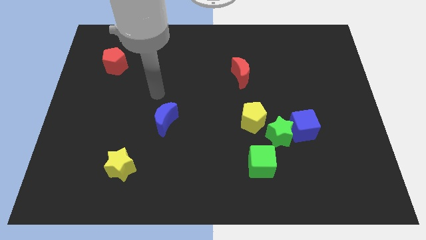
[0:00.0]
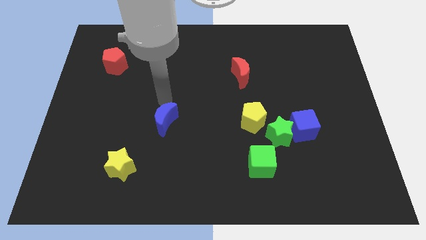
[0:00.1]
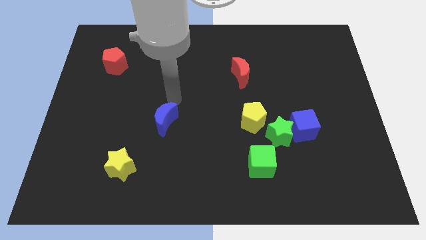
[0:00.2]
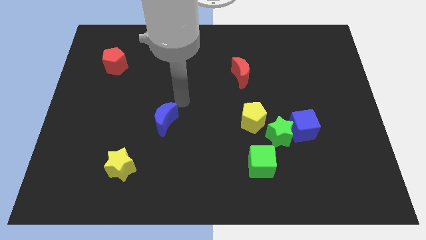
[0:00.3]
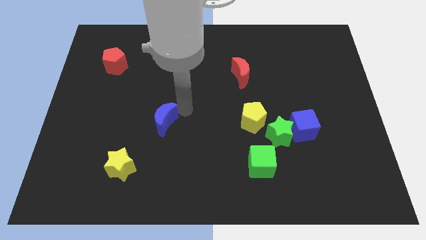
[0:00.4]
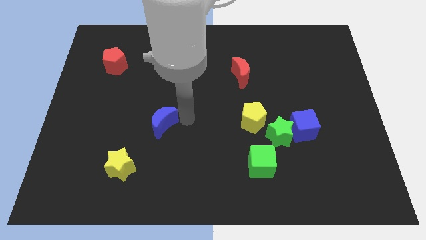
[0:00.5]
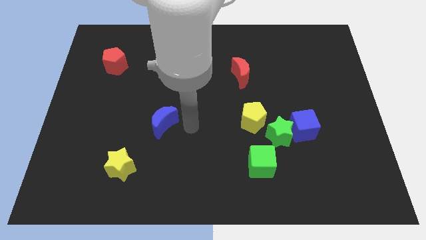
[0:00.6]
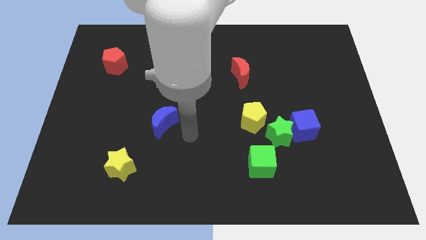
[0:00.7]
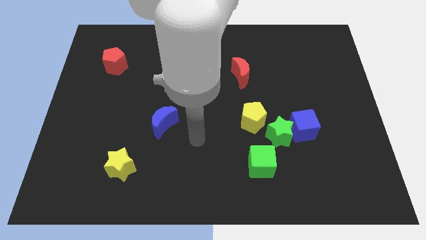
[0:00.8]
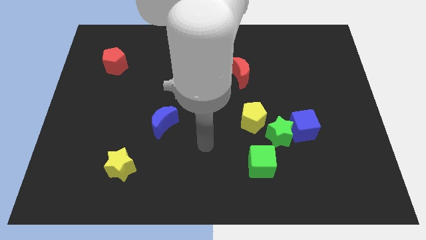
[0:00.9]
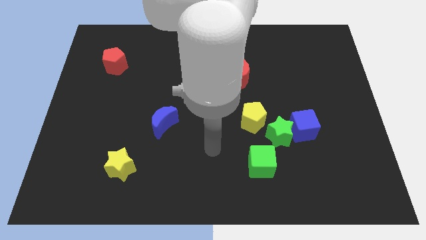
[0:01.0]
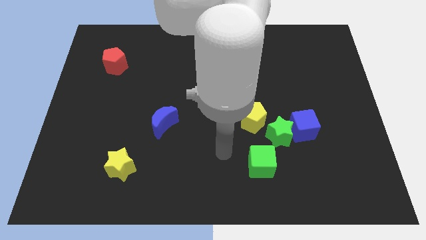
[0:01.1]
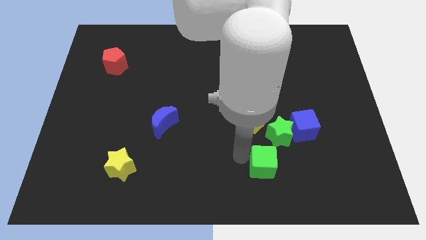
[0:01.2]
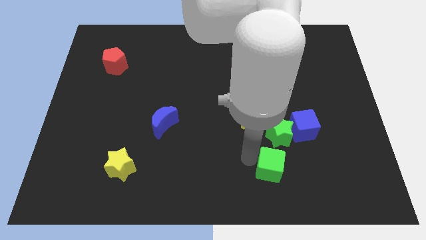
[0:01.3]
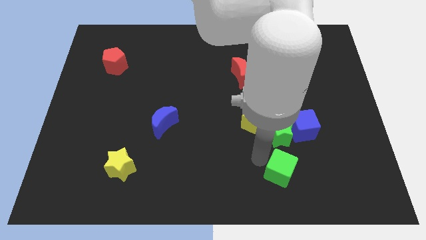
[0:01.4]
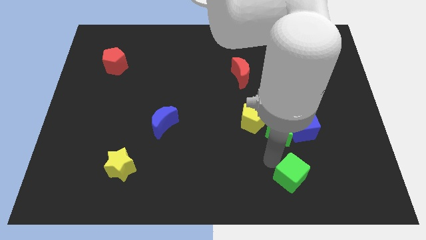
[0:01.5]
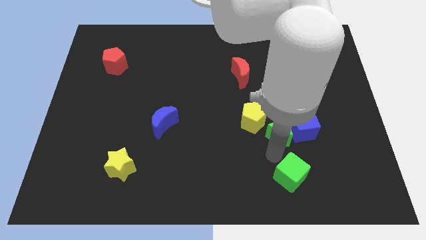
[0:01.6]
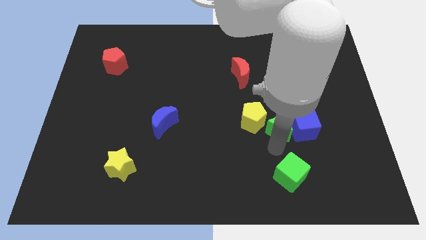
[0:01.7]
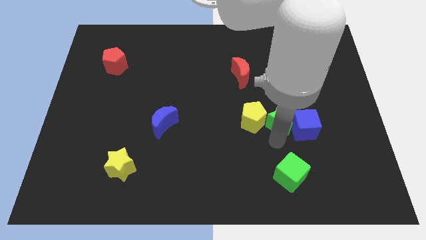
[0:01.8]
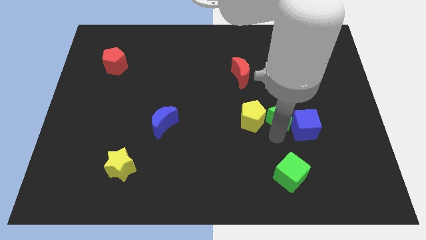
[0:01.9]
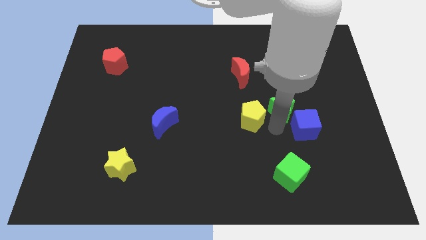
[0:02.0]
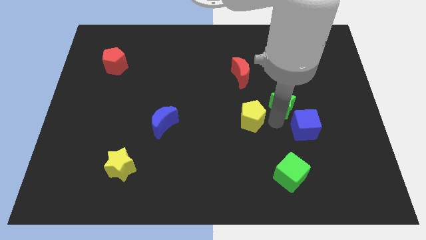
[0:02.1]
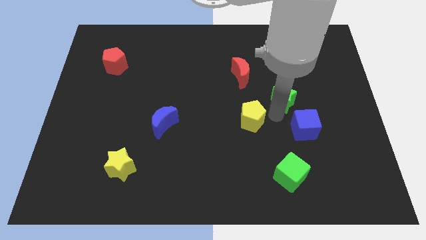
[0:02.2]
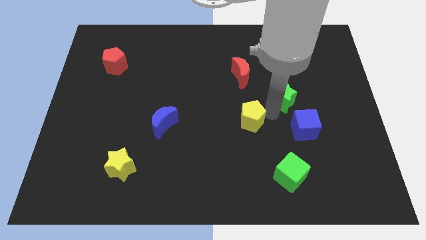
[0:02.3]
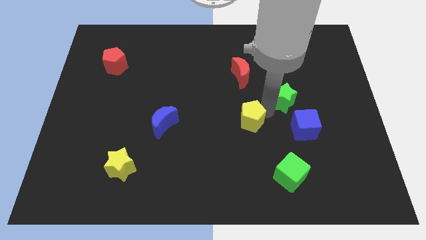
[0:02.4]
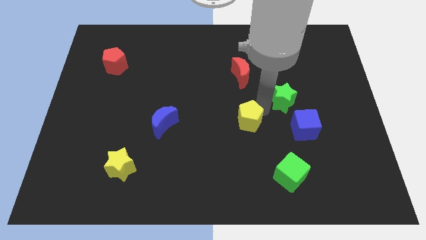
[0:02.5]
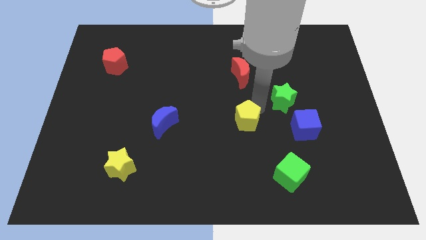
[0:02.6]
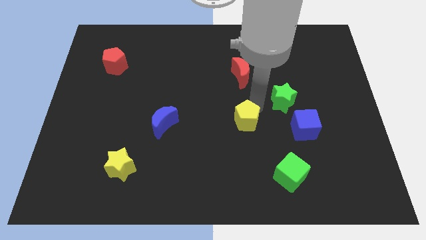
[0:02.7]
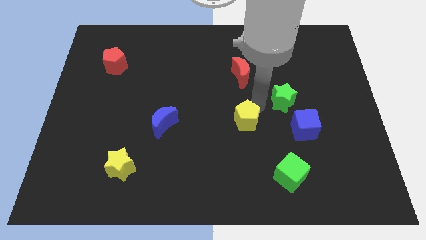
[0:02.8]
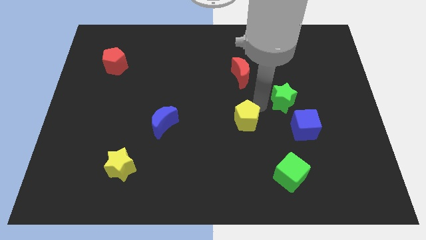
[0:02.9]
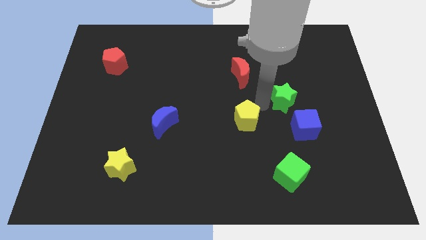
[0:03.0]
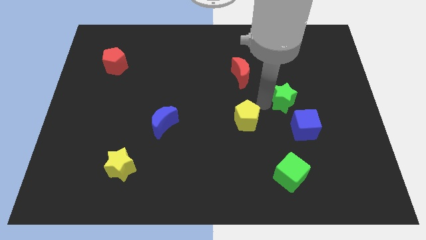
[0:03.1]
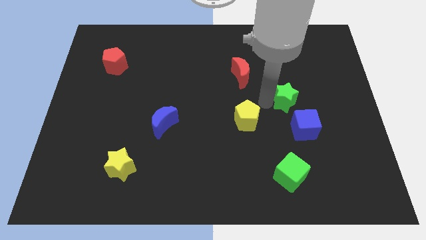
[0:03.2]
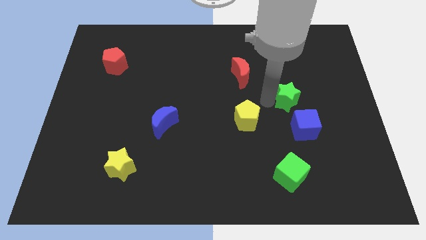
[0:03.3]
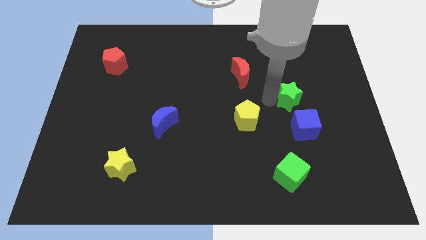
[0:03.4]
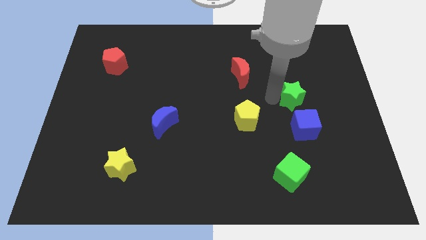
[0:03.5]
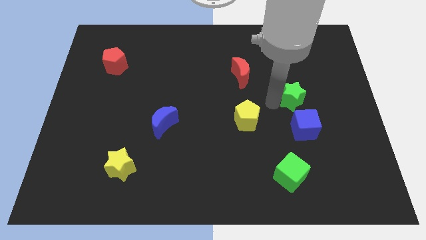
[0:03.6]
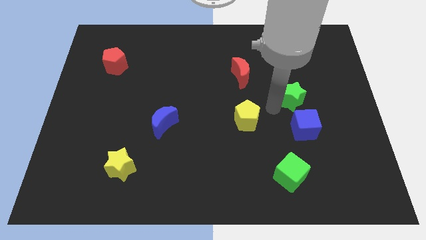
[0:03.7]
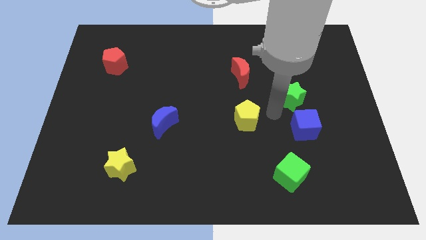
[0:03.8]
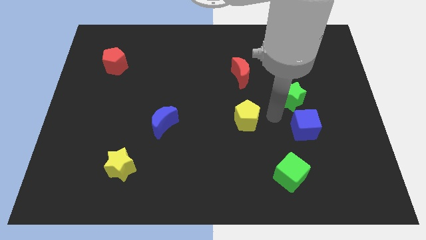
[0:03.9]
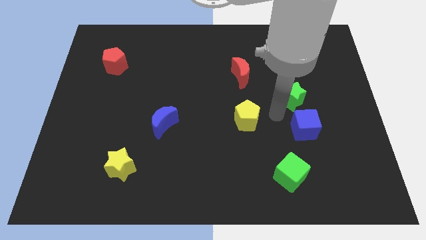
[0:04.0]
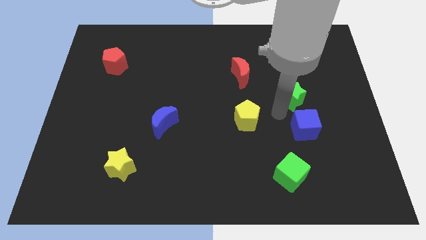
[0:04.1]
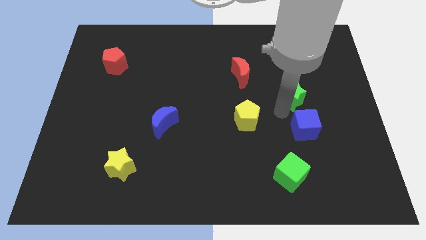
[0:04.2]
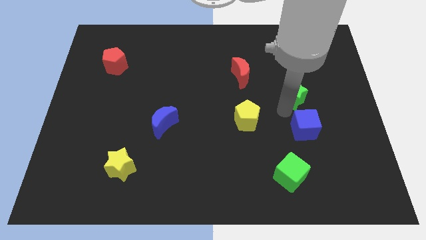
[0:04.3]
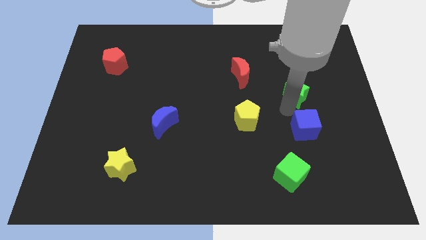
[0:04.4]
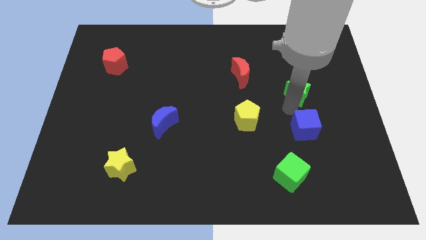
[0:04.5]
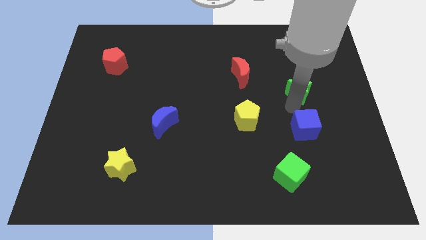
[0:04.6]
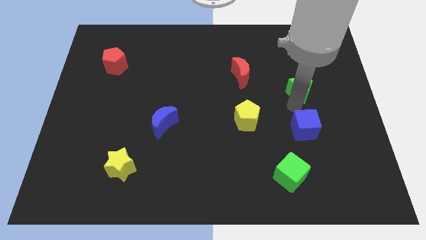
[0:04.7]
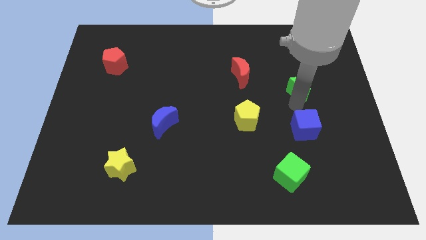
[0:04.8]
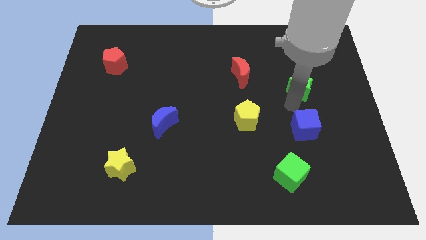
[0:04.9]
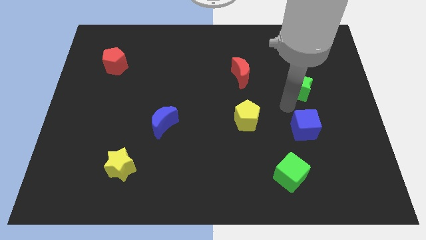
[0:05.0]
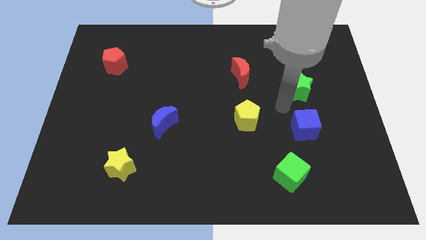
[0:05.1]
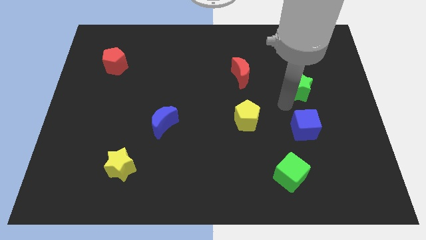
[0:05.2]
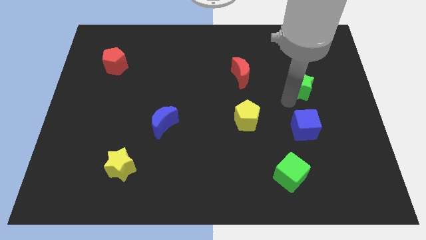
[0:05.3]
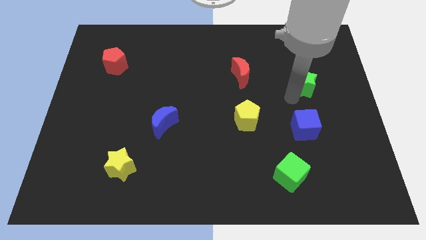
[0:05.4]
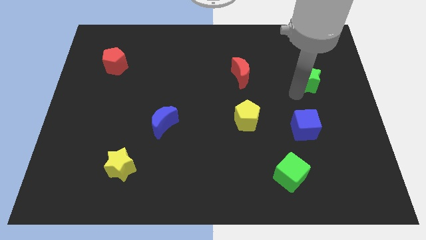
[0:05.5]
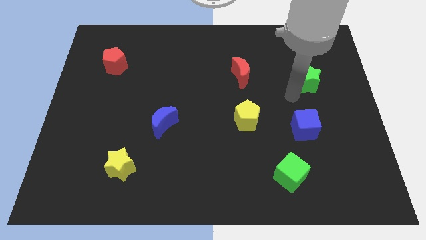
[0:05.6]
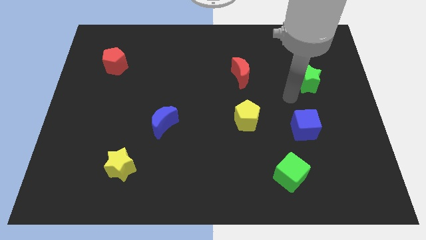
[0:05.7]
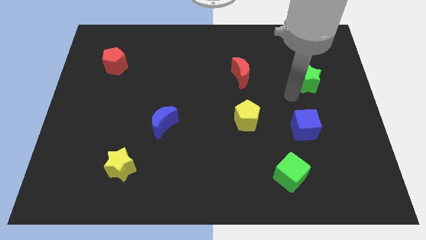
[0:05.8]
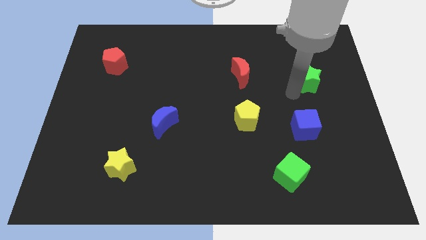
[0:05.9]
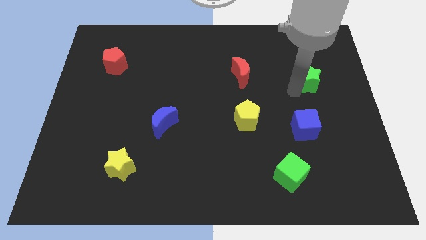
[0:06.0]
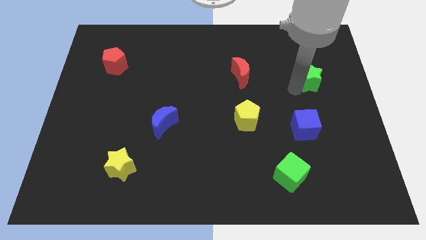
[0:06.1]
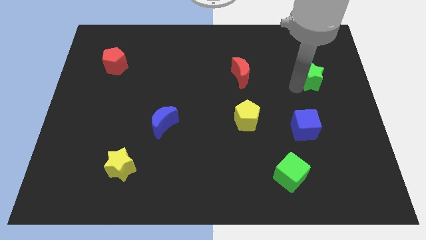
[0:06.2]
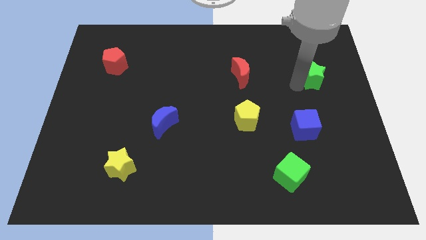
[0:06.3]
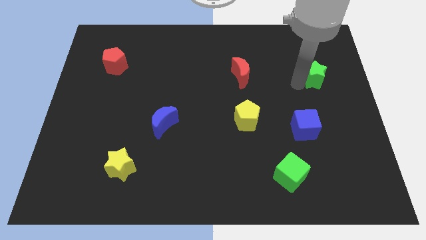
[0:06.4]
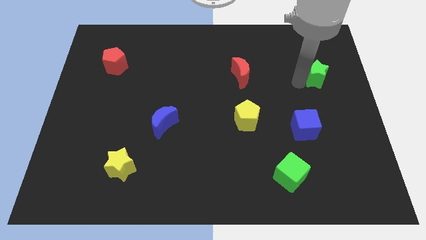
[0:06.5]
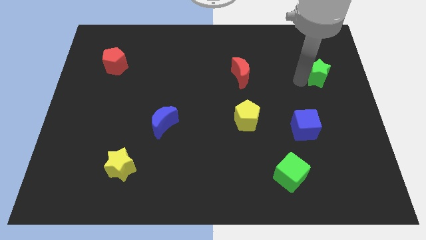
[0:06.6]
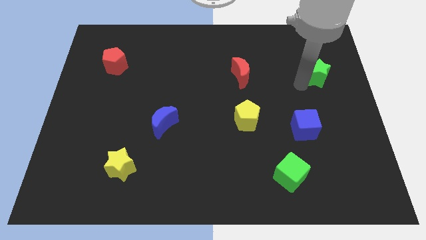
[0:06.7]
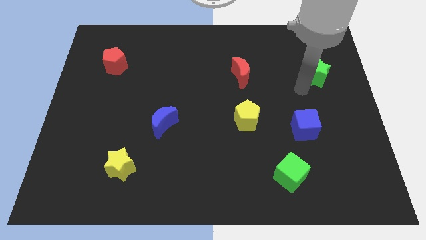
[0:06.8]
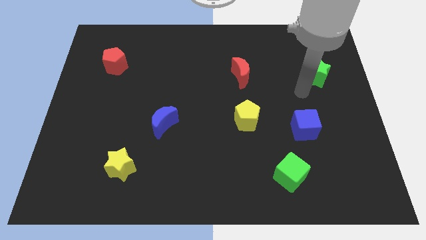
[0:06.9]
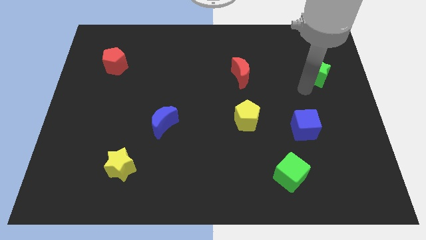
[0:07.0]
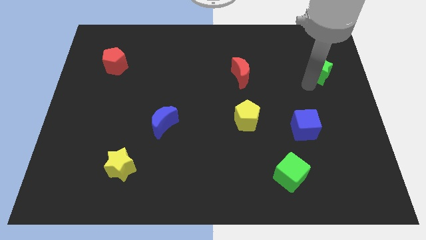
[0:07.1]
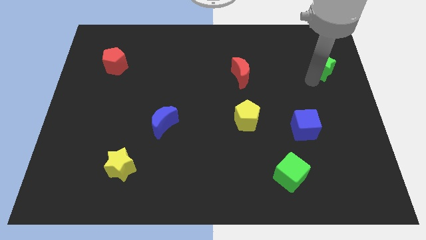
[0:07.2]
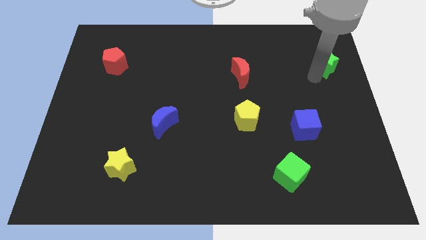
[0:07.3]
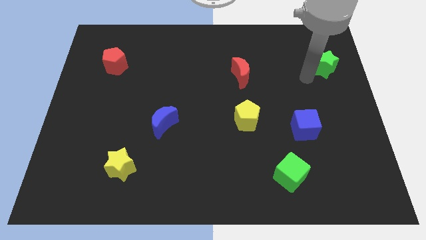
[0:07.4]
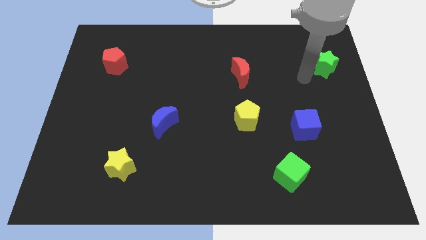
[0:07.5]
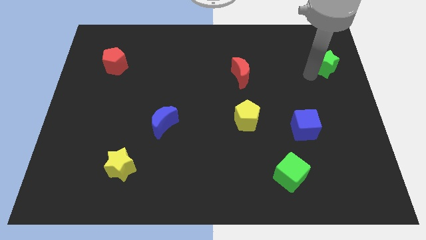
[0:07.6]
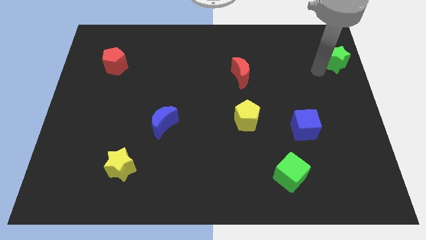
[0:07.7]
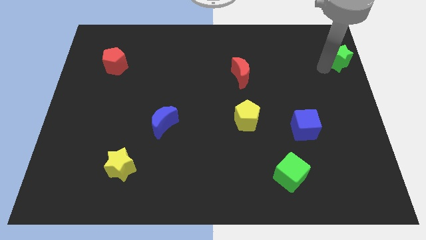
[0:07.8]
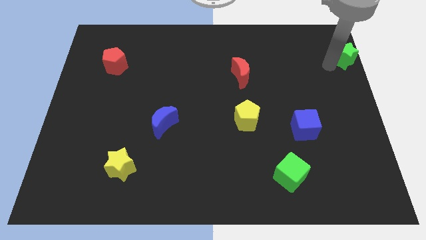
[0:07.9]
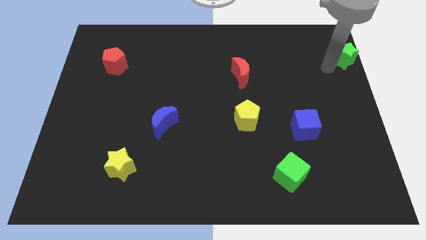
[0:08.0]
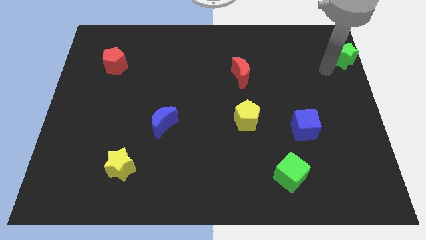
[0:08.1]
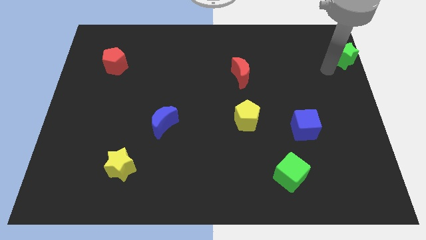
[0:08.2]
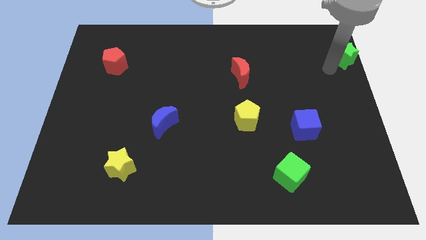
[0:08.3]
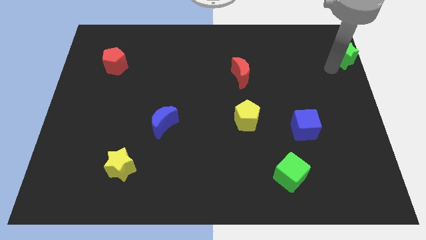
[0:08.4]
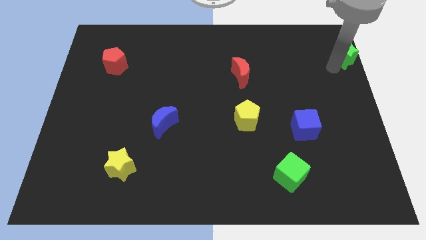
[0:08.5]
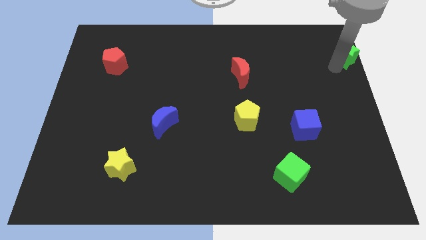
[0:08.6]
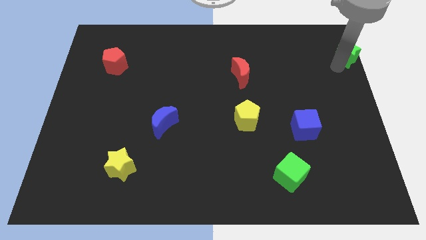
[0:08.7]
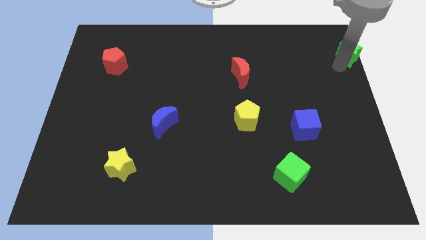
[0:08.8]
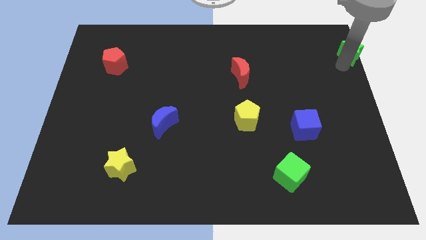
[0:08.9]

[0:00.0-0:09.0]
slide the green star to the top right of the board
